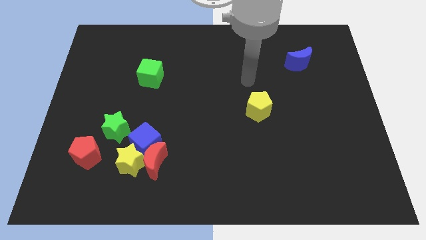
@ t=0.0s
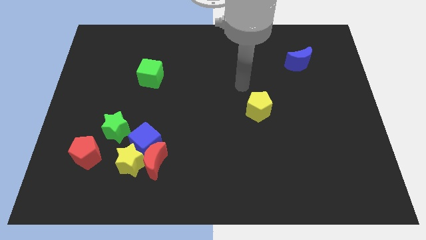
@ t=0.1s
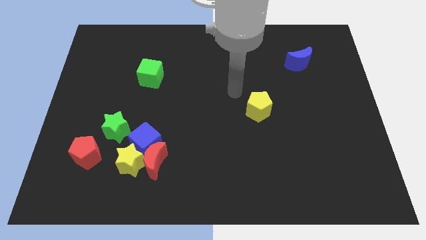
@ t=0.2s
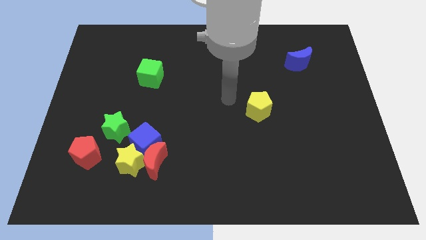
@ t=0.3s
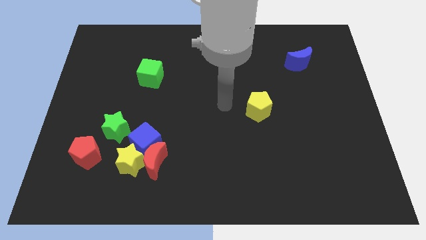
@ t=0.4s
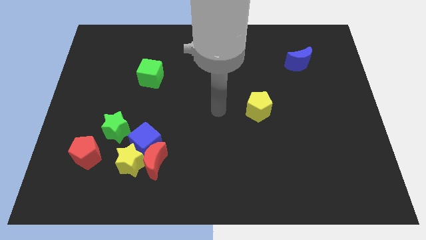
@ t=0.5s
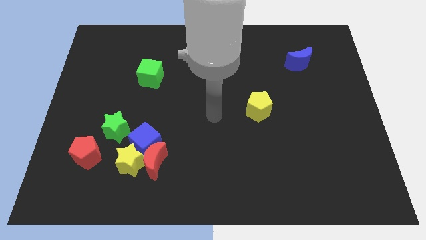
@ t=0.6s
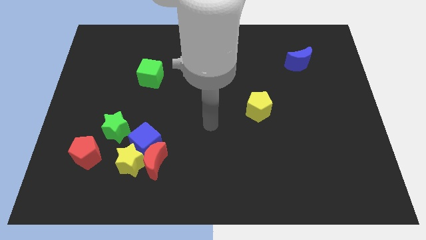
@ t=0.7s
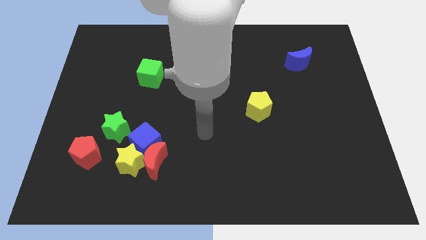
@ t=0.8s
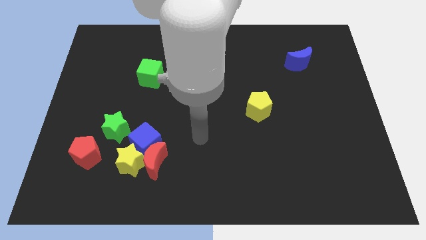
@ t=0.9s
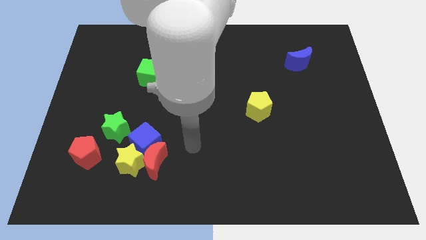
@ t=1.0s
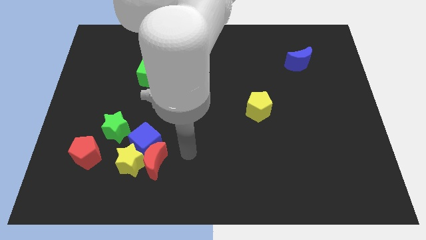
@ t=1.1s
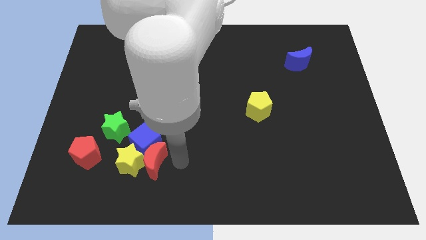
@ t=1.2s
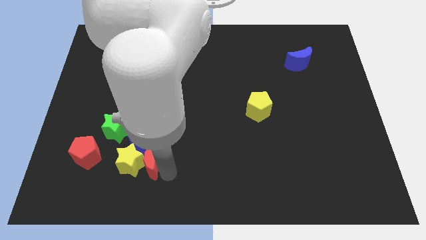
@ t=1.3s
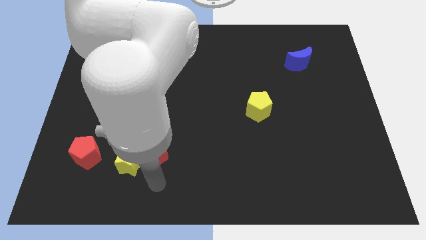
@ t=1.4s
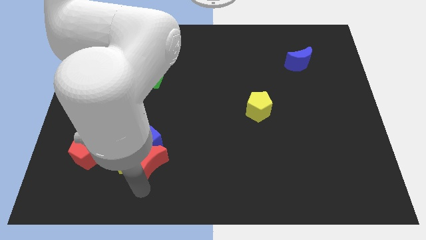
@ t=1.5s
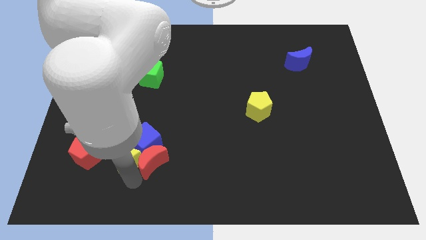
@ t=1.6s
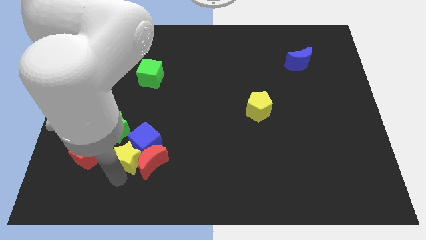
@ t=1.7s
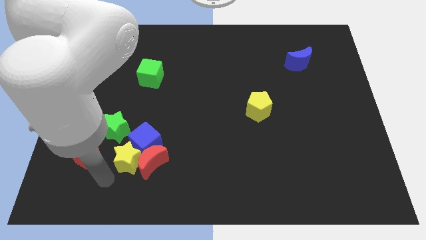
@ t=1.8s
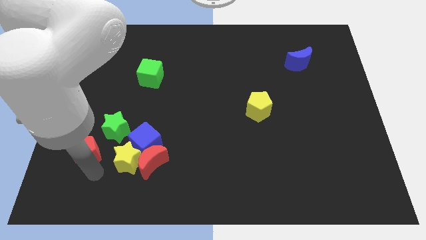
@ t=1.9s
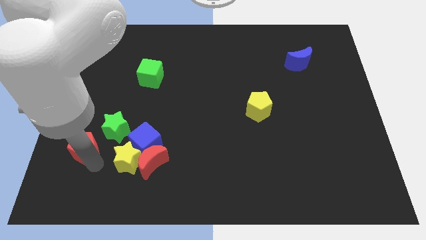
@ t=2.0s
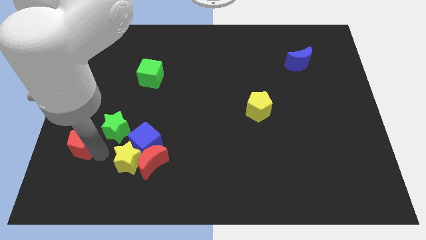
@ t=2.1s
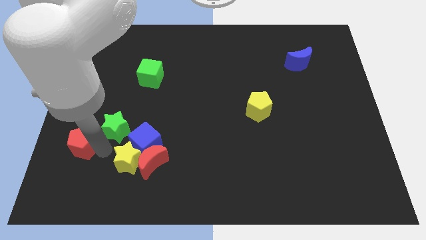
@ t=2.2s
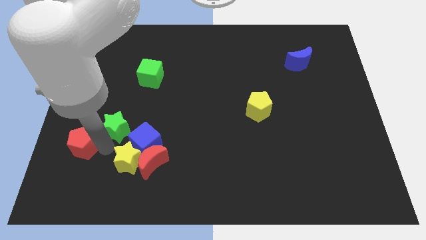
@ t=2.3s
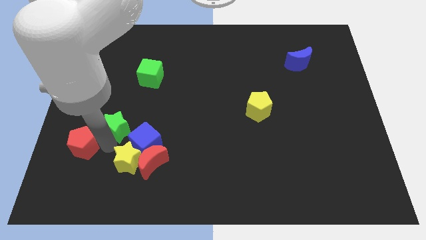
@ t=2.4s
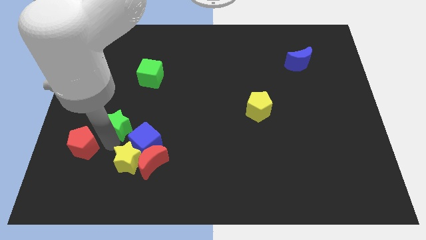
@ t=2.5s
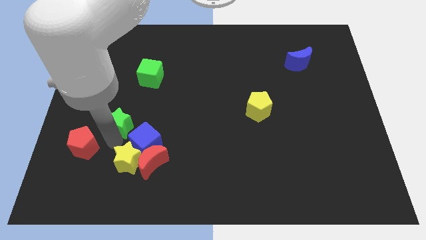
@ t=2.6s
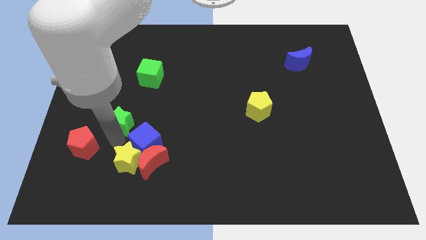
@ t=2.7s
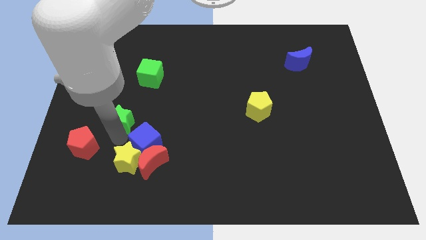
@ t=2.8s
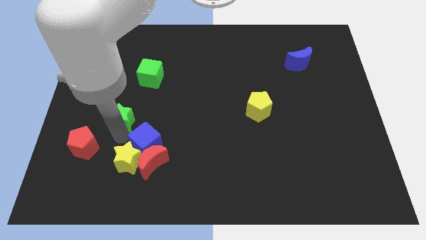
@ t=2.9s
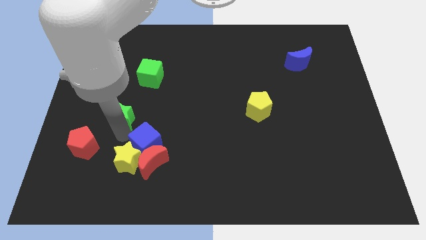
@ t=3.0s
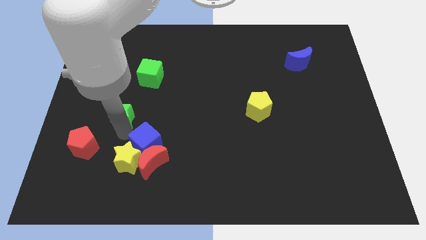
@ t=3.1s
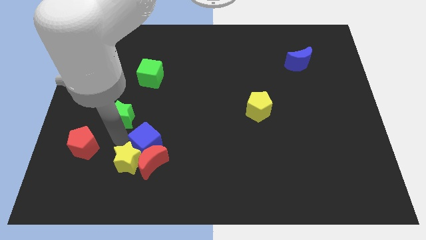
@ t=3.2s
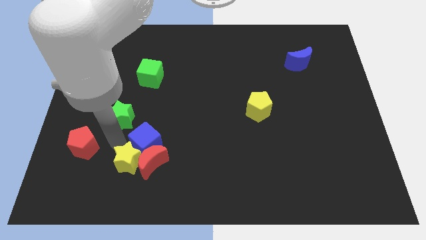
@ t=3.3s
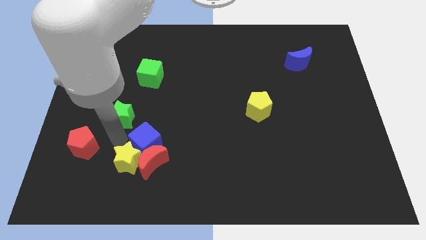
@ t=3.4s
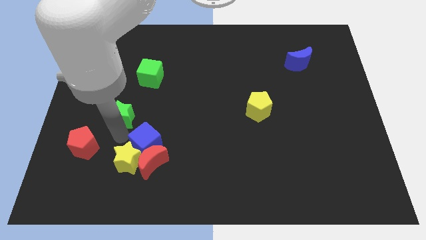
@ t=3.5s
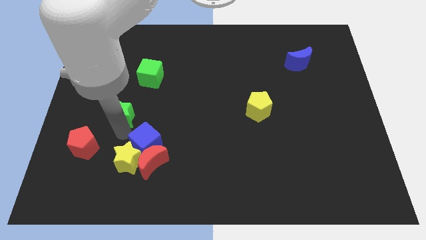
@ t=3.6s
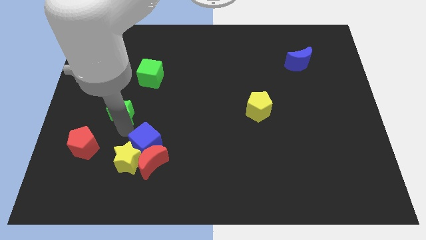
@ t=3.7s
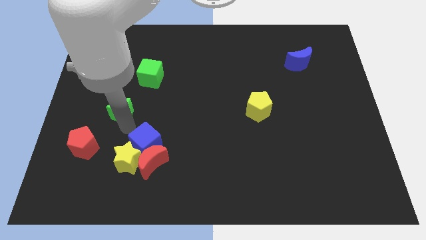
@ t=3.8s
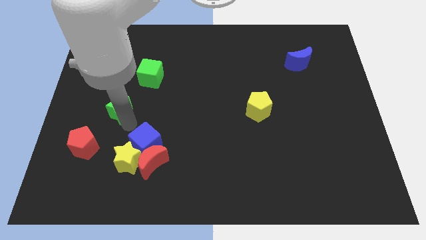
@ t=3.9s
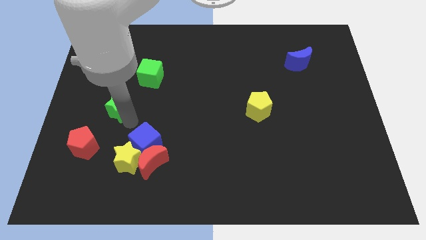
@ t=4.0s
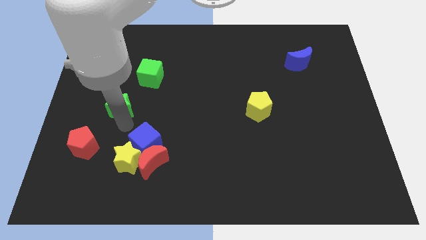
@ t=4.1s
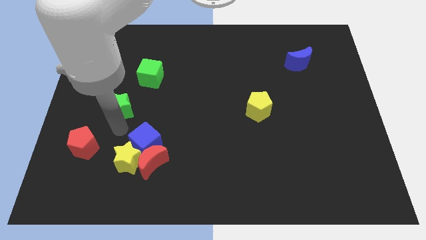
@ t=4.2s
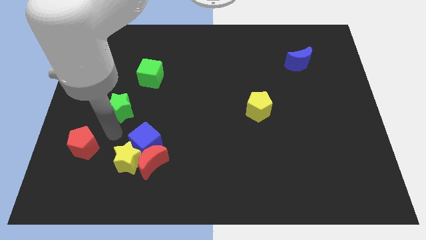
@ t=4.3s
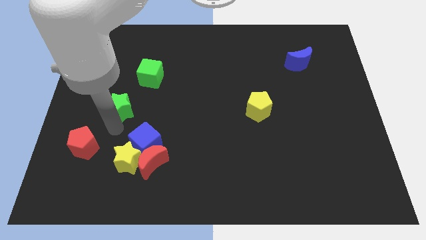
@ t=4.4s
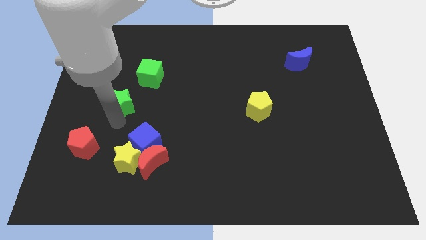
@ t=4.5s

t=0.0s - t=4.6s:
move the green star a little bit upwards

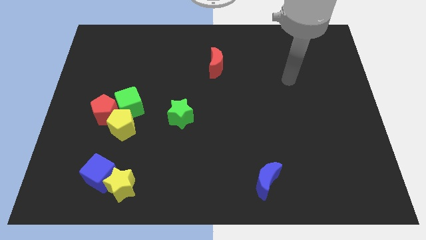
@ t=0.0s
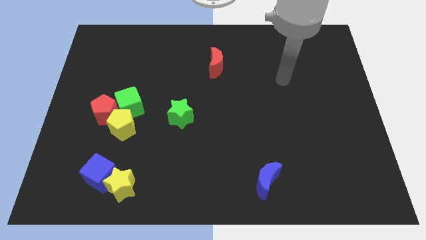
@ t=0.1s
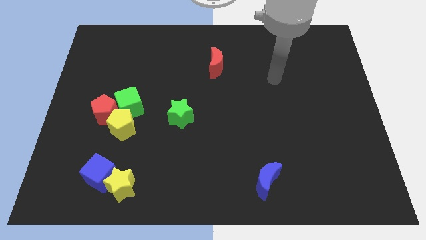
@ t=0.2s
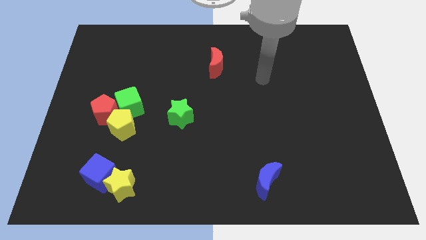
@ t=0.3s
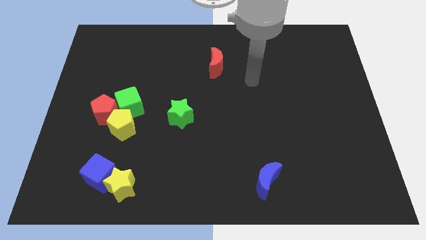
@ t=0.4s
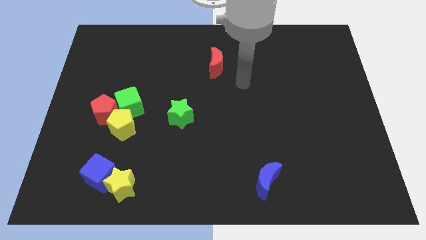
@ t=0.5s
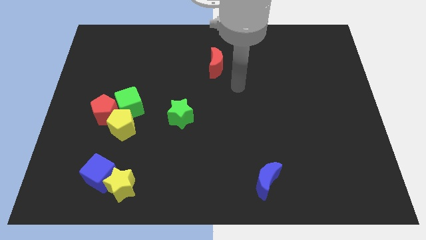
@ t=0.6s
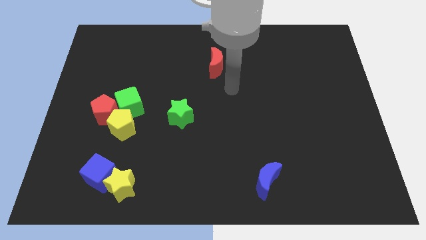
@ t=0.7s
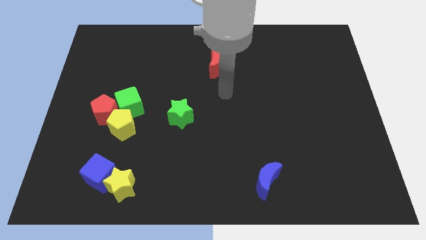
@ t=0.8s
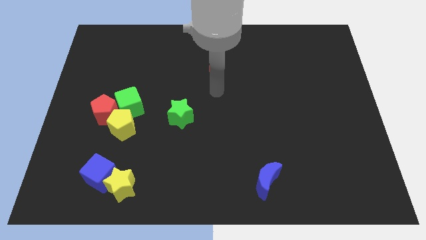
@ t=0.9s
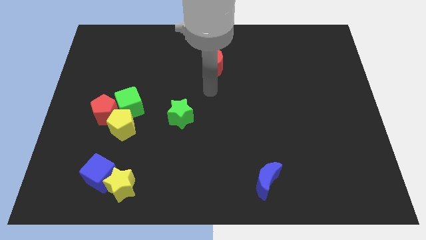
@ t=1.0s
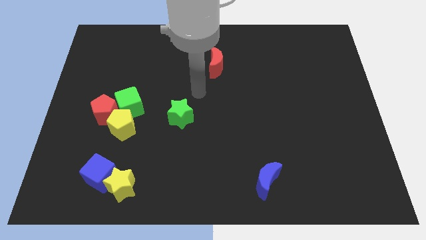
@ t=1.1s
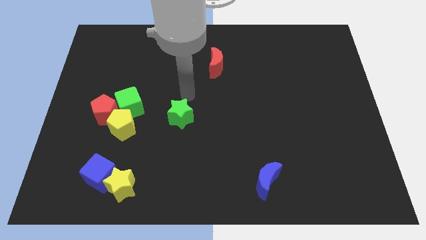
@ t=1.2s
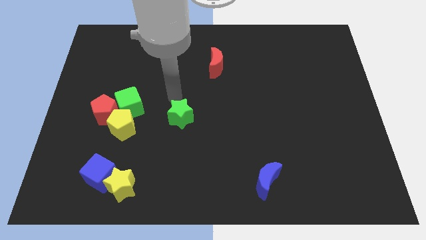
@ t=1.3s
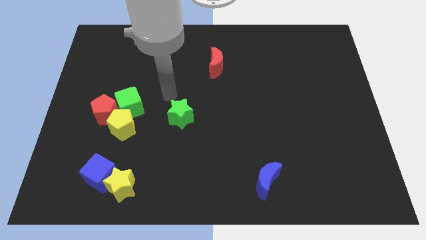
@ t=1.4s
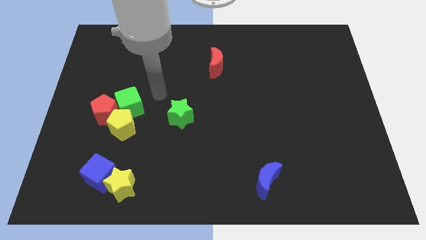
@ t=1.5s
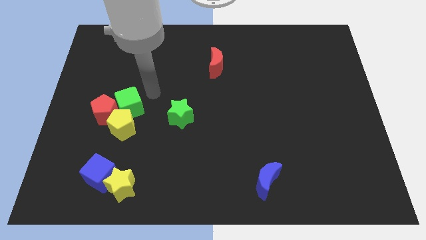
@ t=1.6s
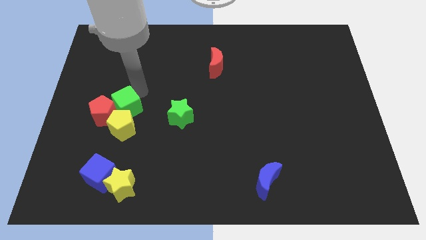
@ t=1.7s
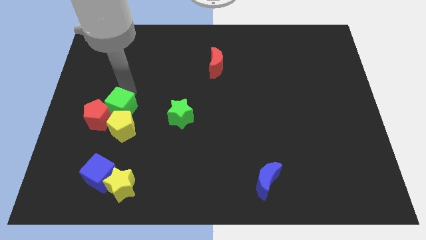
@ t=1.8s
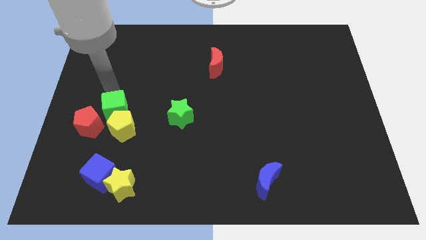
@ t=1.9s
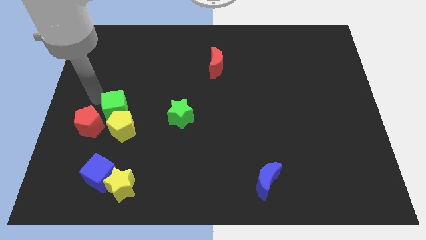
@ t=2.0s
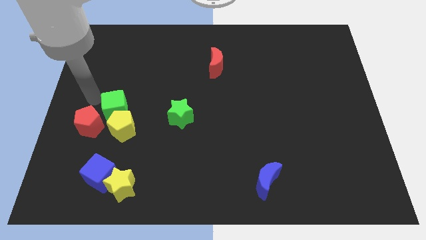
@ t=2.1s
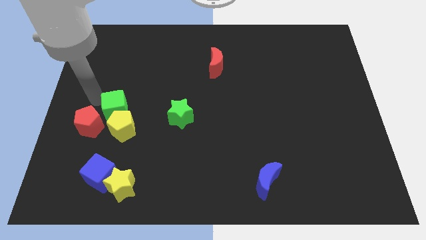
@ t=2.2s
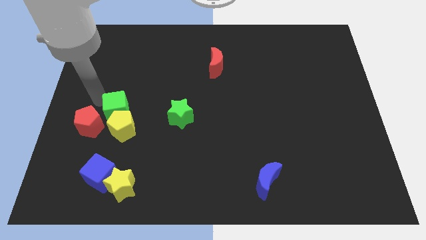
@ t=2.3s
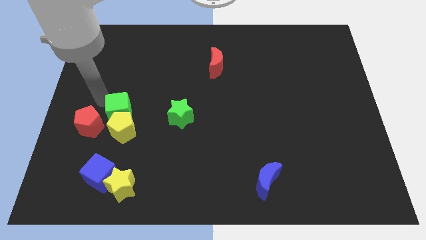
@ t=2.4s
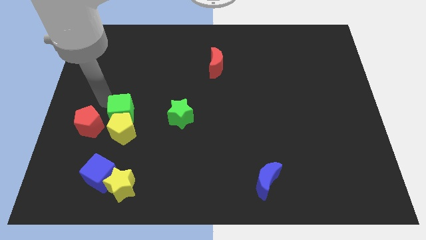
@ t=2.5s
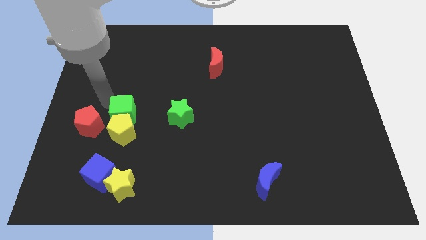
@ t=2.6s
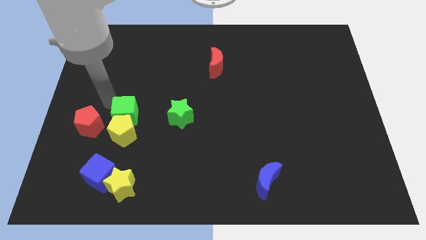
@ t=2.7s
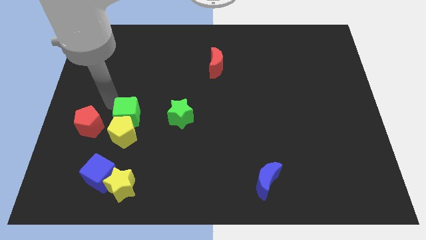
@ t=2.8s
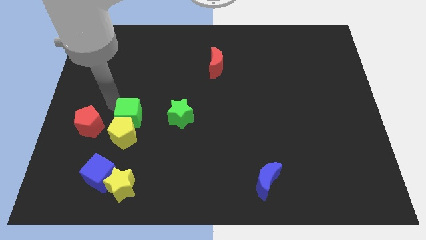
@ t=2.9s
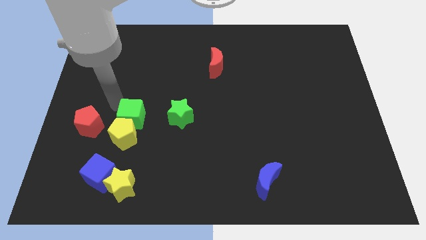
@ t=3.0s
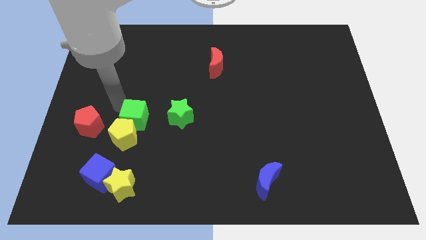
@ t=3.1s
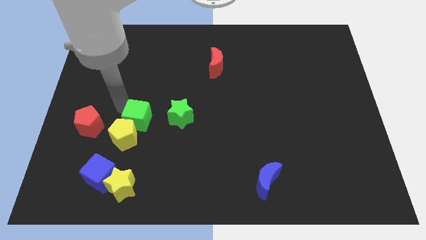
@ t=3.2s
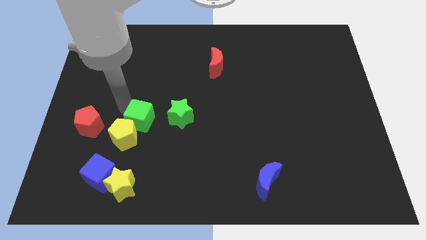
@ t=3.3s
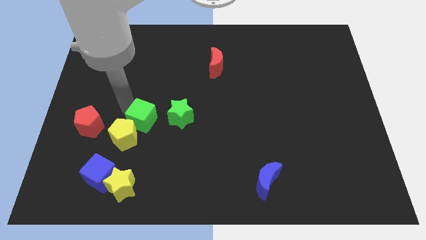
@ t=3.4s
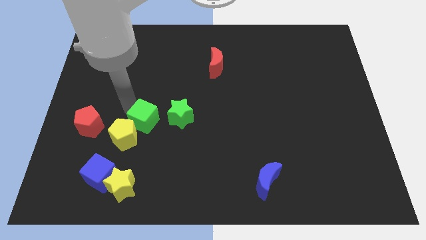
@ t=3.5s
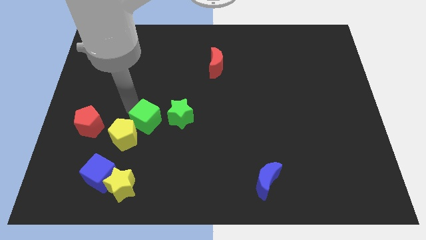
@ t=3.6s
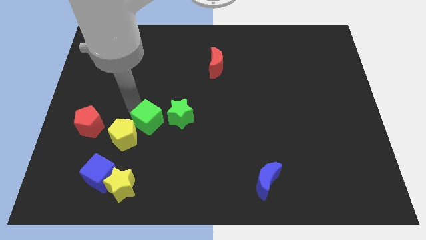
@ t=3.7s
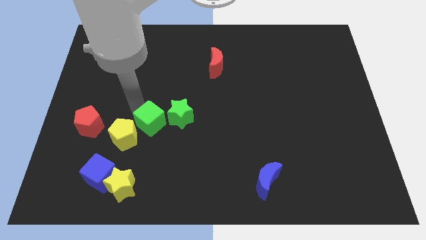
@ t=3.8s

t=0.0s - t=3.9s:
slightly push the green cube down and then right
